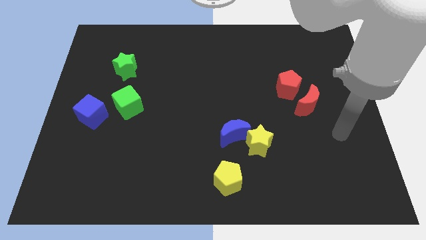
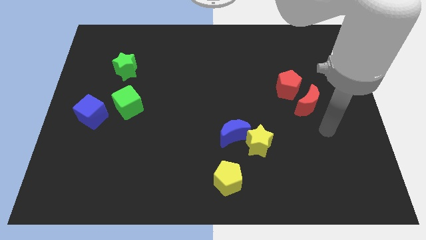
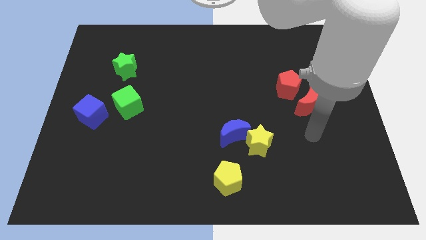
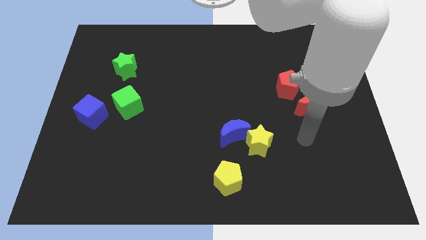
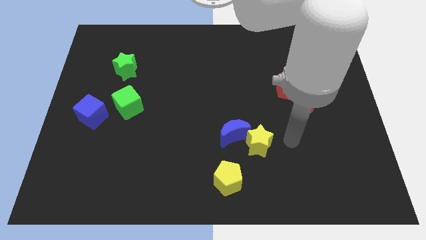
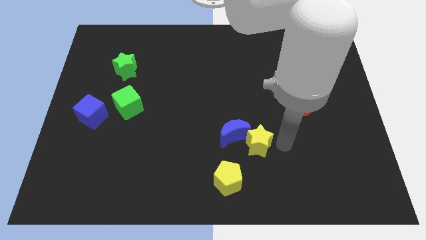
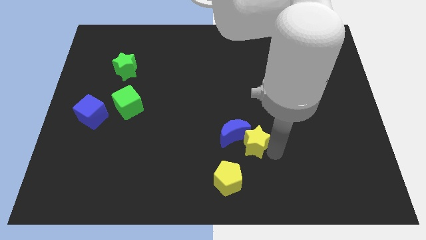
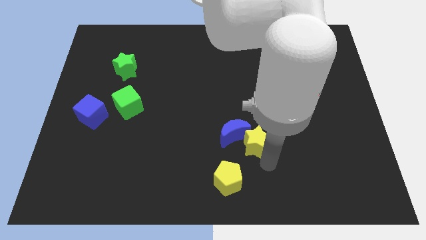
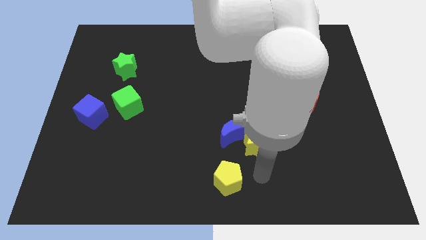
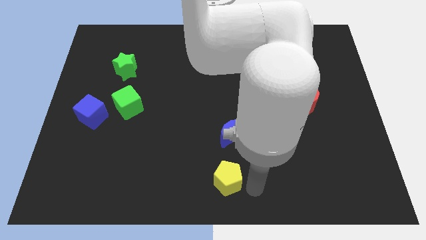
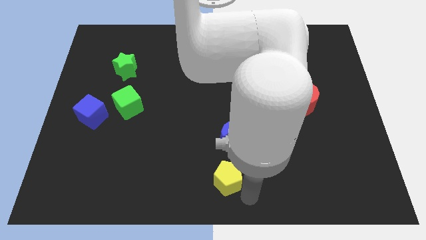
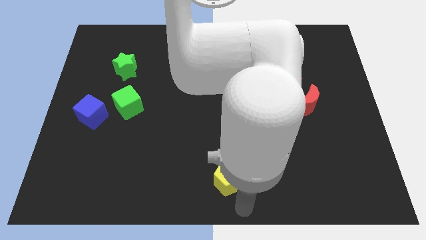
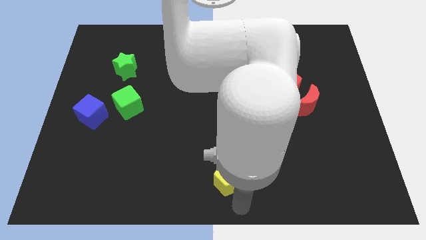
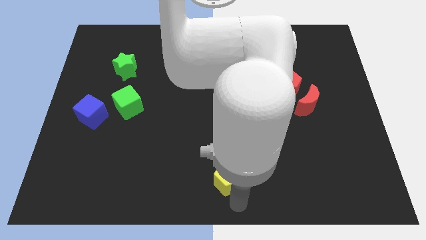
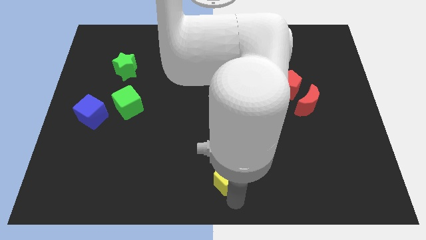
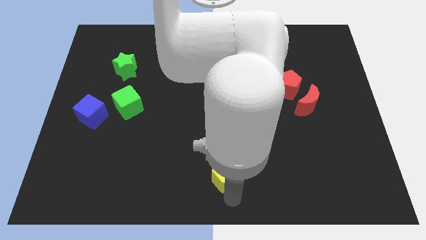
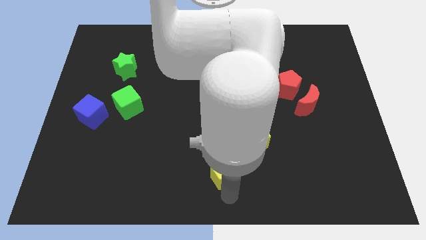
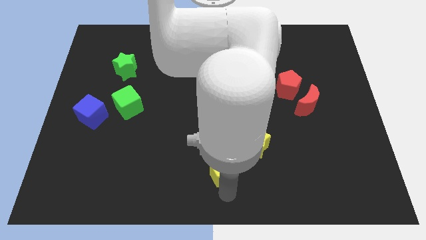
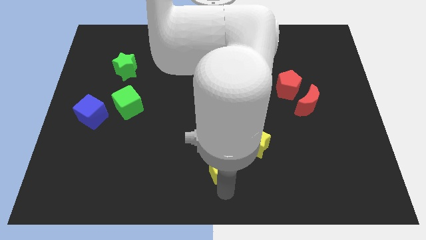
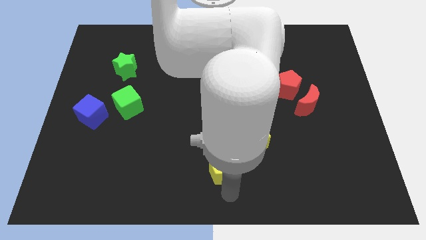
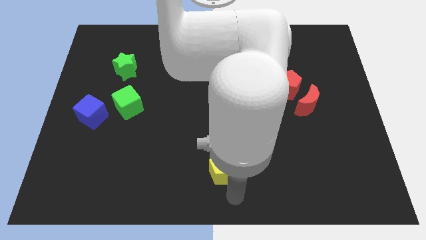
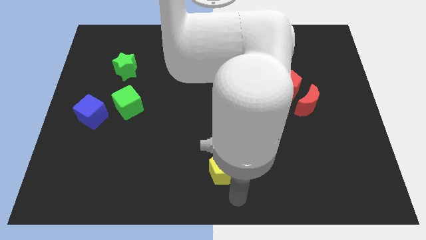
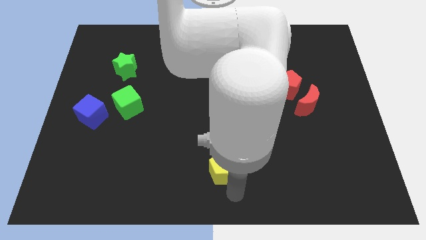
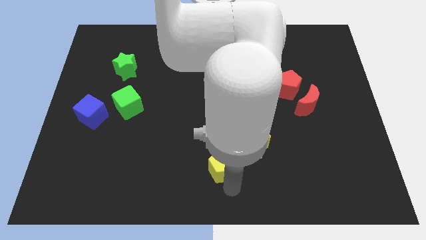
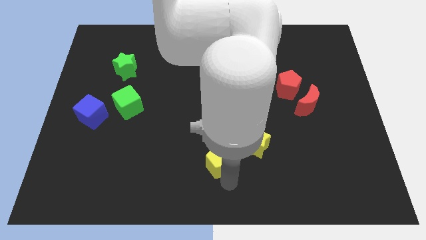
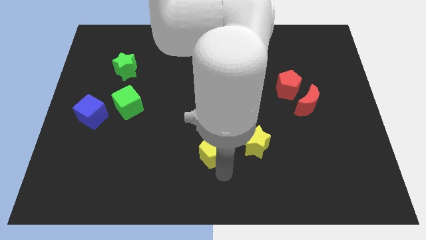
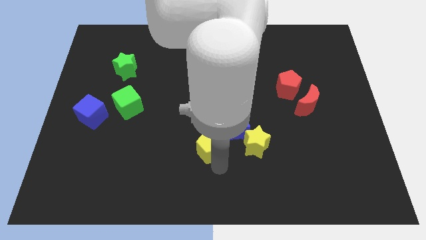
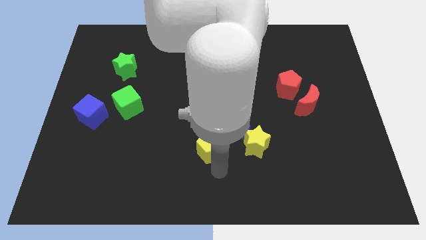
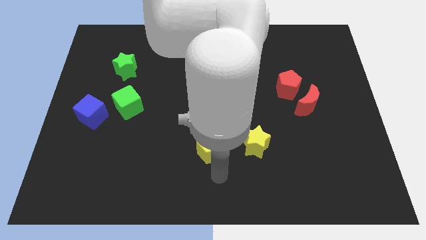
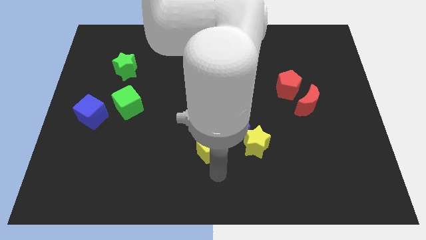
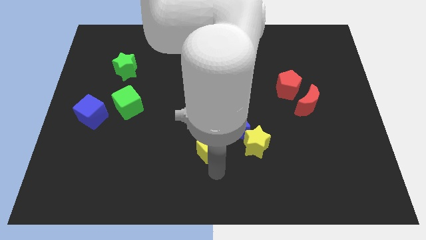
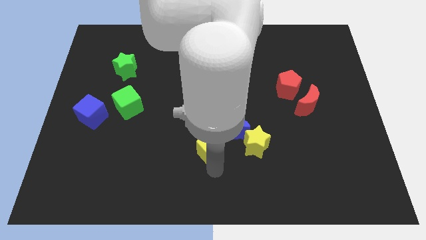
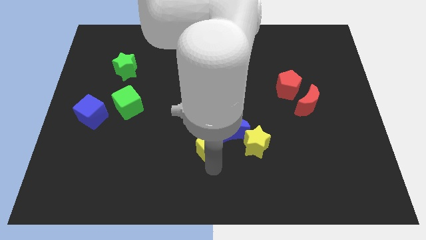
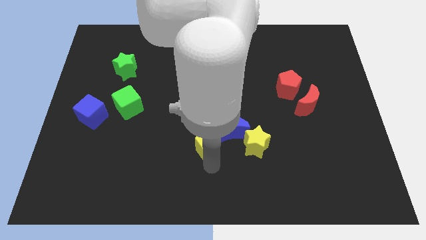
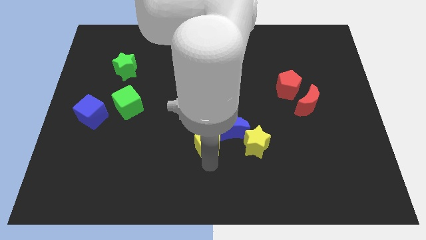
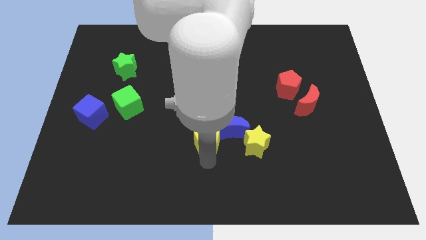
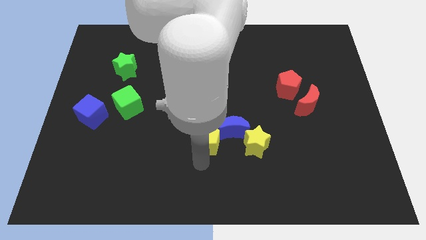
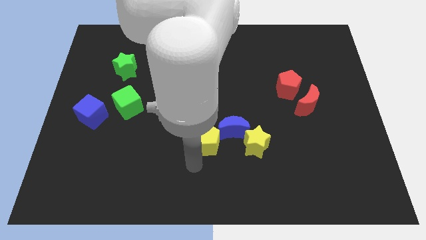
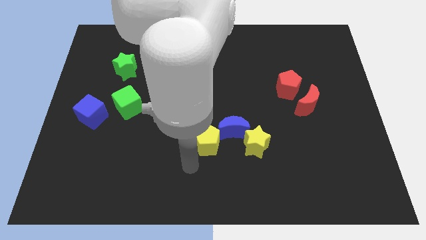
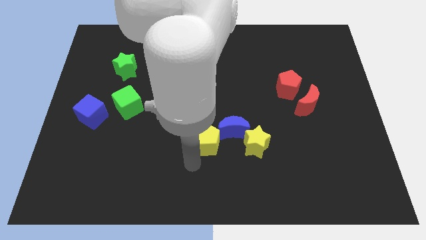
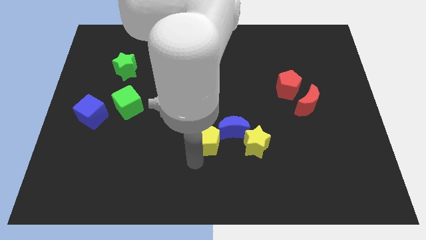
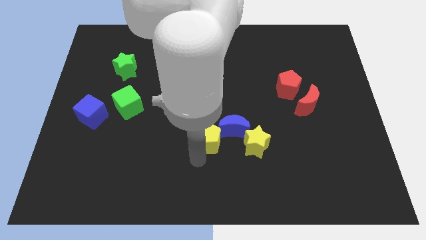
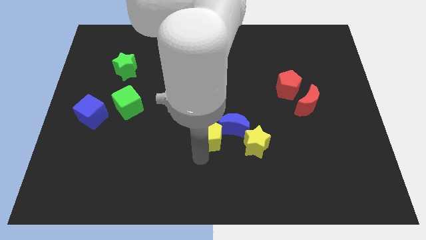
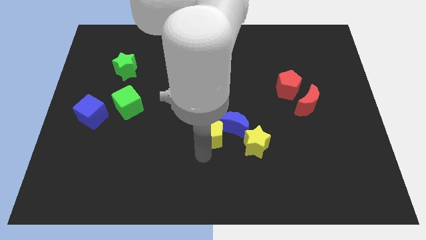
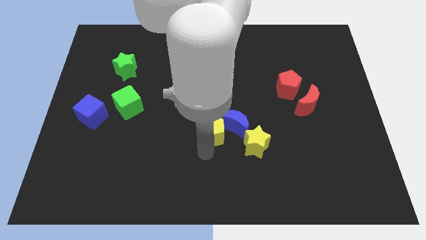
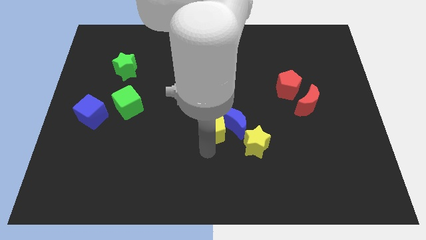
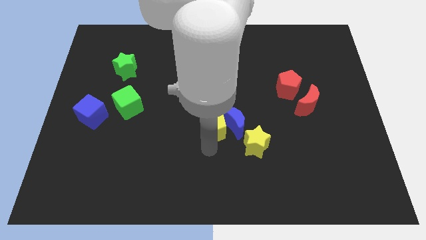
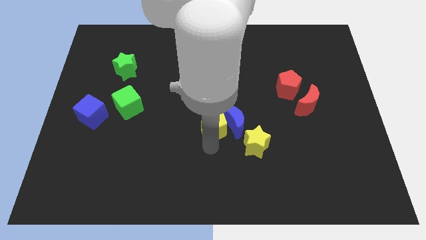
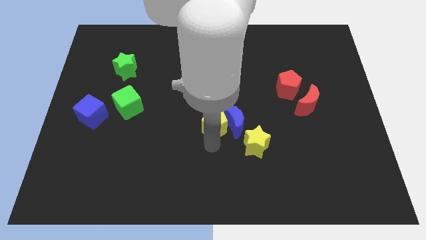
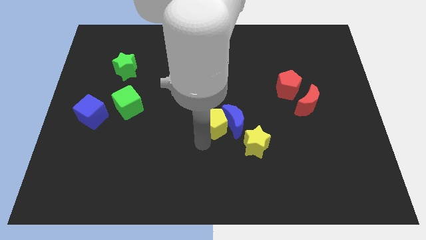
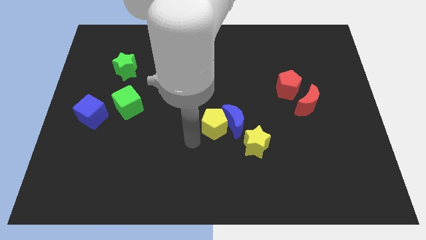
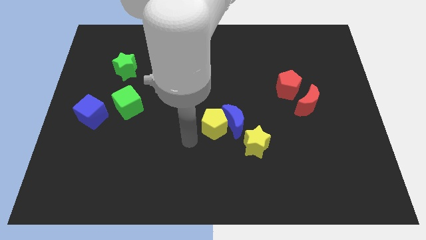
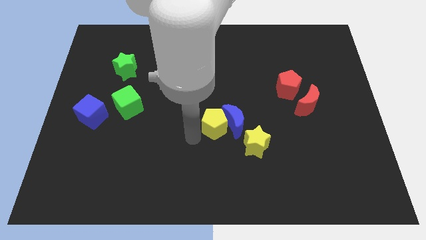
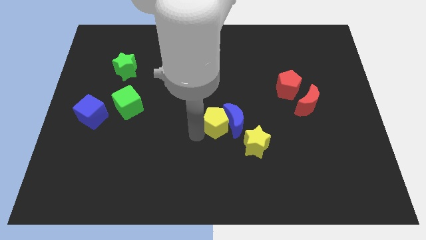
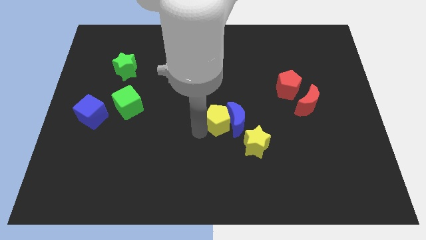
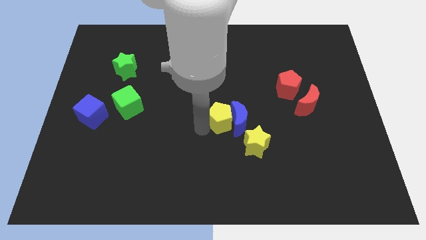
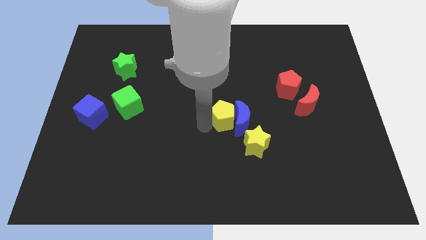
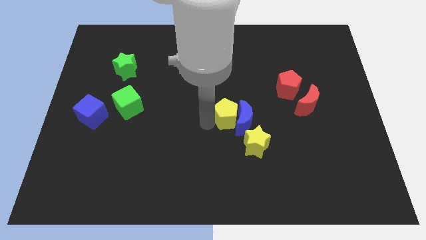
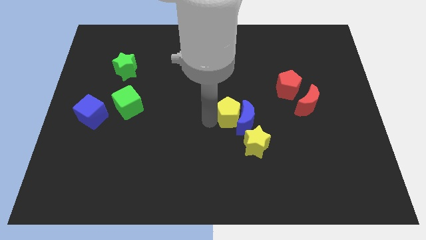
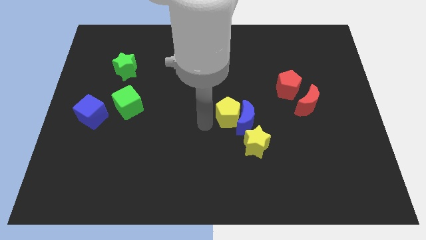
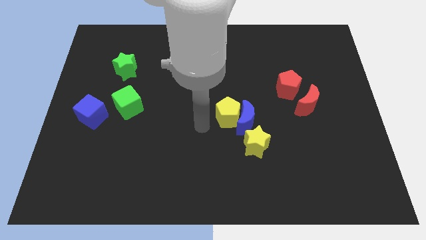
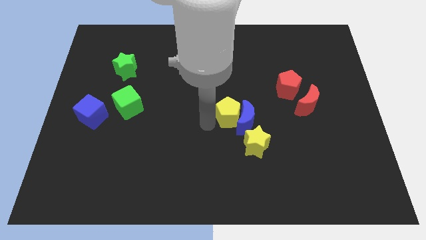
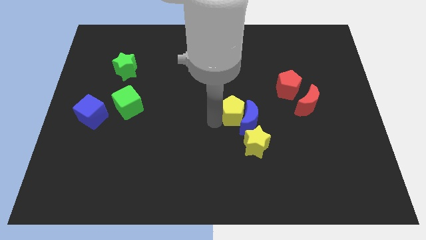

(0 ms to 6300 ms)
move the yellow pentagon above the yellow star
